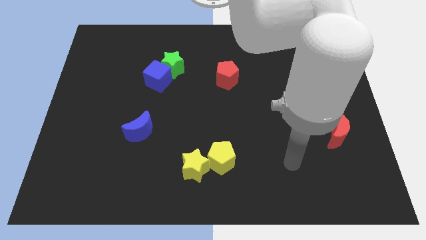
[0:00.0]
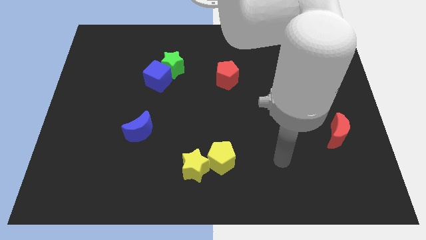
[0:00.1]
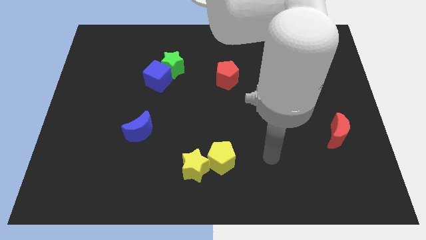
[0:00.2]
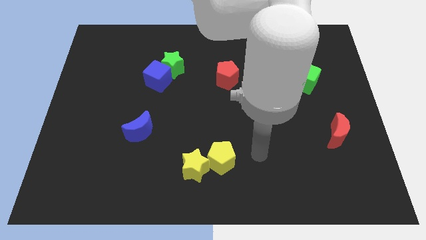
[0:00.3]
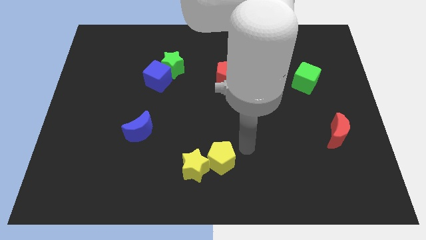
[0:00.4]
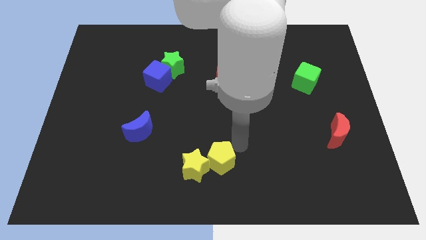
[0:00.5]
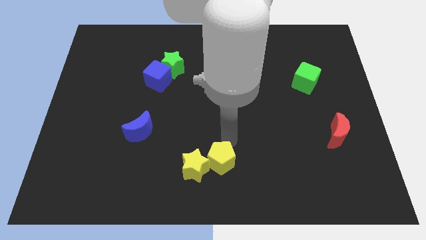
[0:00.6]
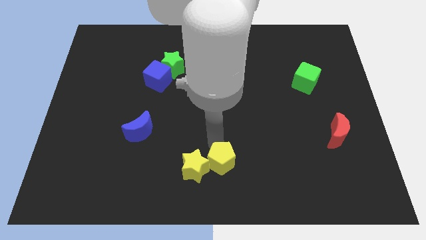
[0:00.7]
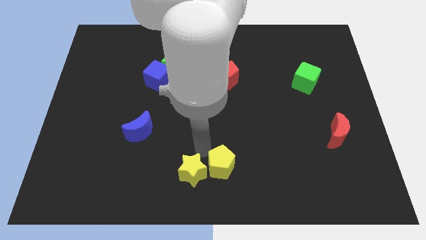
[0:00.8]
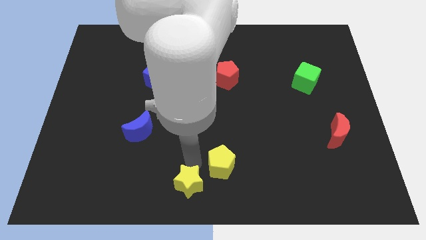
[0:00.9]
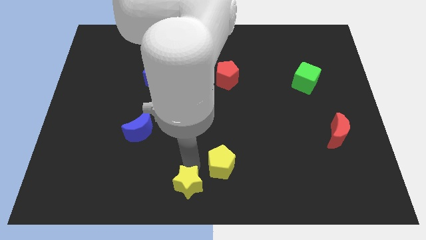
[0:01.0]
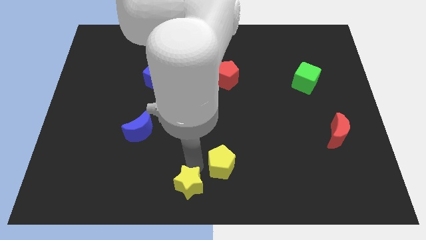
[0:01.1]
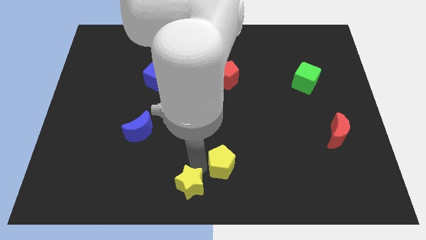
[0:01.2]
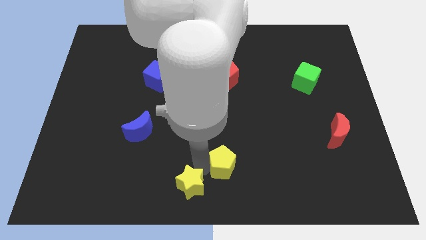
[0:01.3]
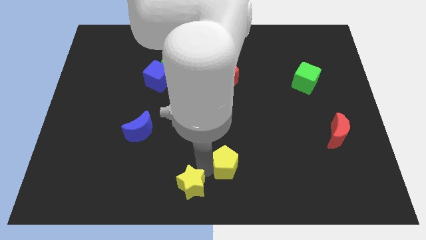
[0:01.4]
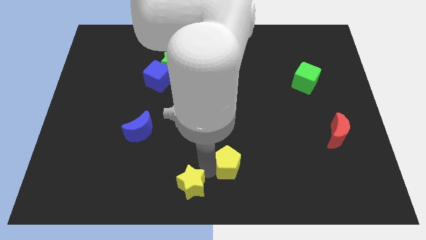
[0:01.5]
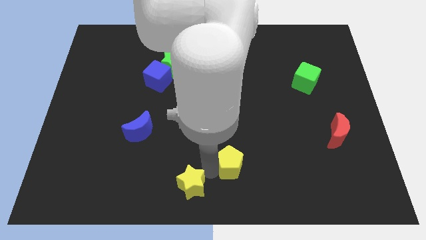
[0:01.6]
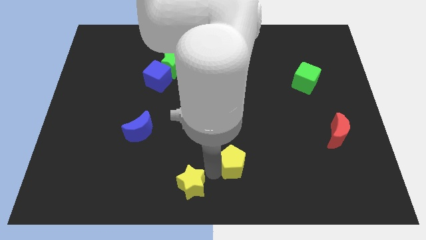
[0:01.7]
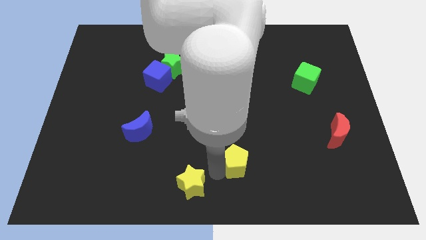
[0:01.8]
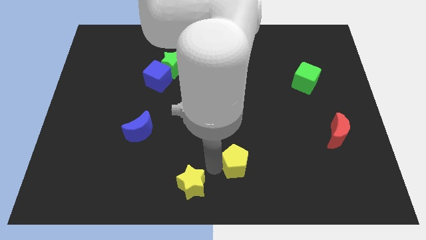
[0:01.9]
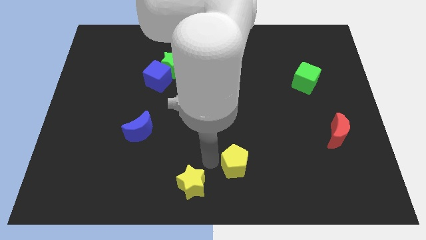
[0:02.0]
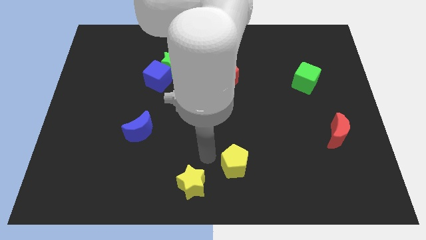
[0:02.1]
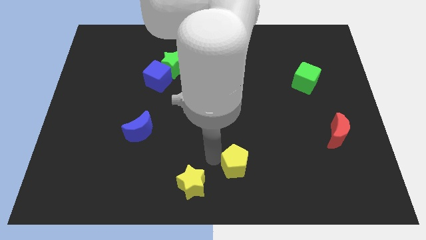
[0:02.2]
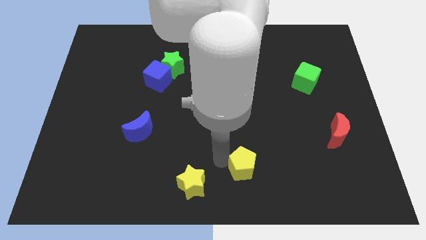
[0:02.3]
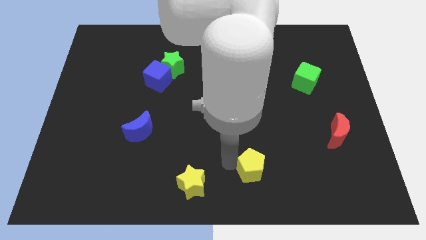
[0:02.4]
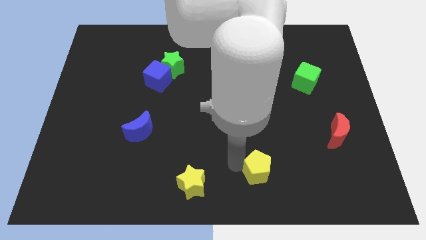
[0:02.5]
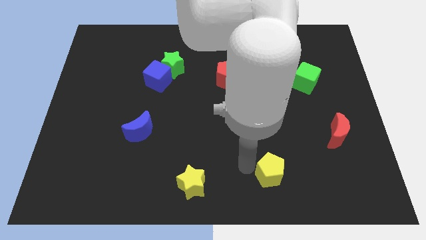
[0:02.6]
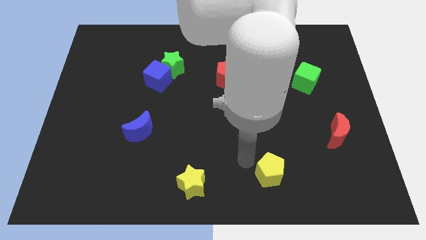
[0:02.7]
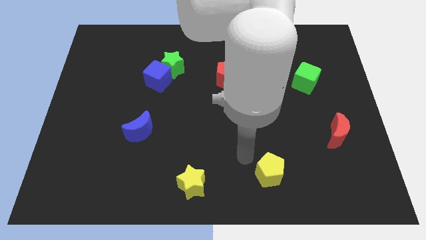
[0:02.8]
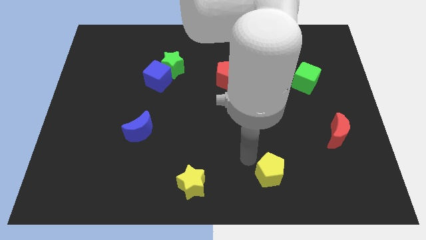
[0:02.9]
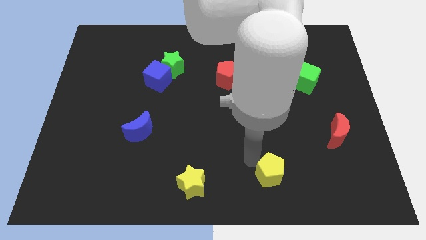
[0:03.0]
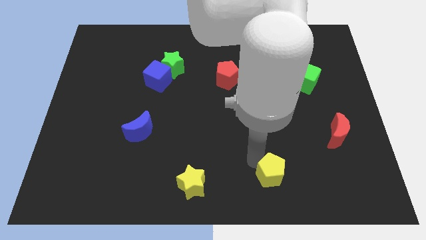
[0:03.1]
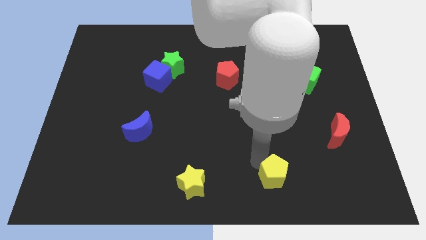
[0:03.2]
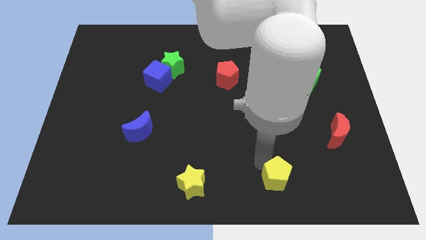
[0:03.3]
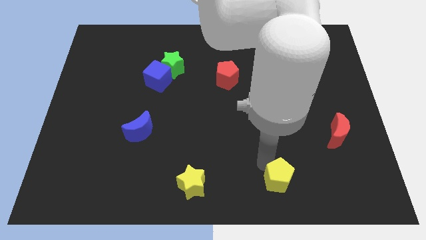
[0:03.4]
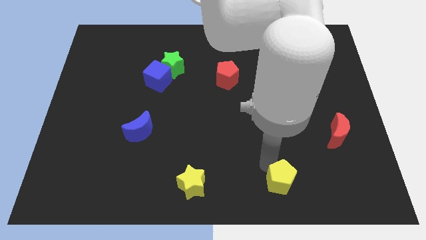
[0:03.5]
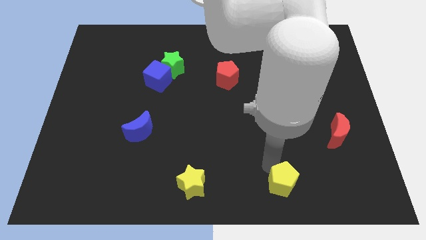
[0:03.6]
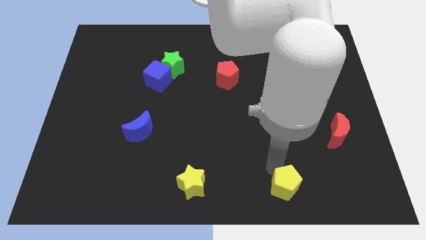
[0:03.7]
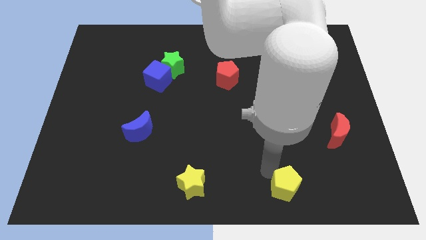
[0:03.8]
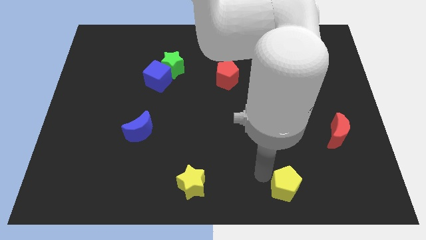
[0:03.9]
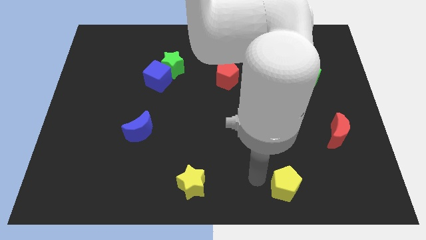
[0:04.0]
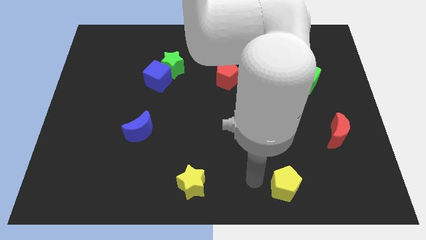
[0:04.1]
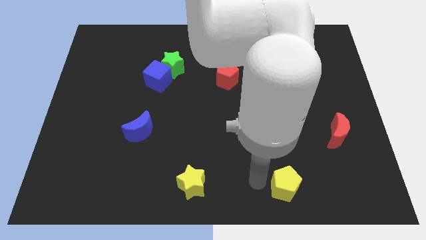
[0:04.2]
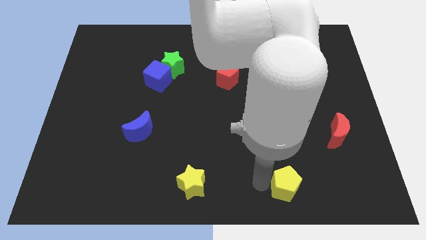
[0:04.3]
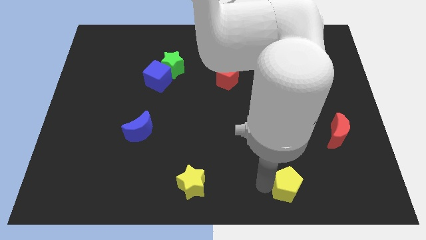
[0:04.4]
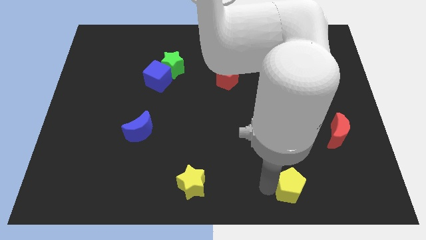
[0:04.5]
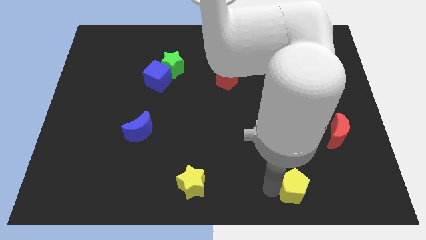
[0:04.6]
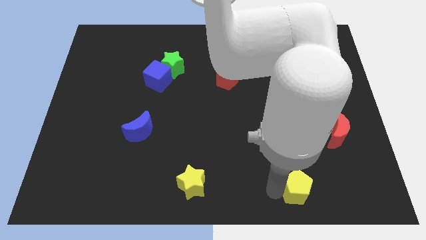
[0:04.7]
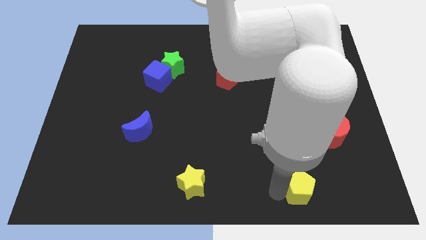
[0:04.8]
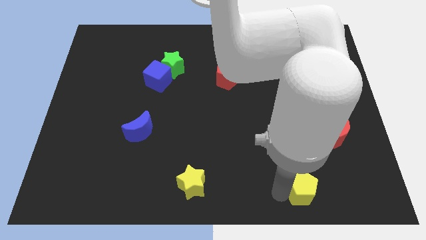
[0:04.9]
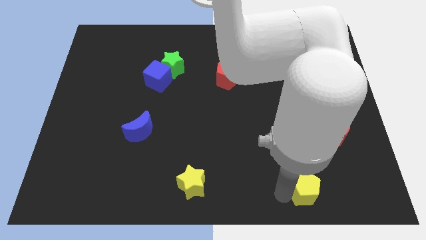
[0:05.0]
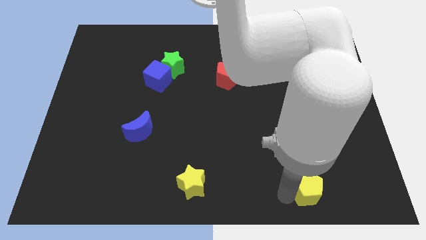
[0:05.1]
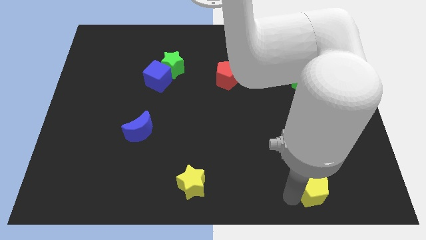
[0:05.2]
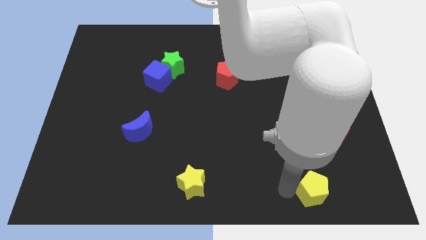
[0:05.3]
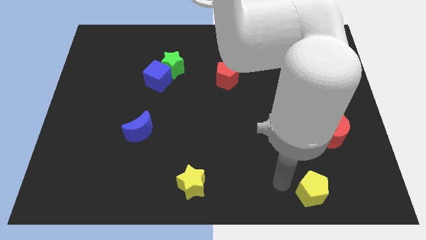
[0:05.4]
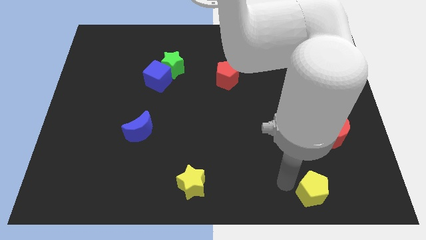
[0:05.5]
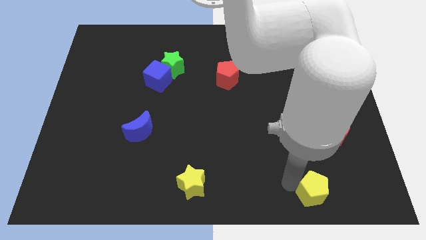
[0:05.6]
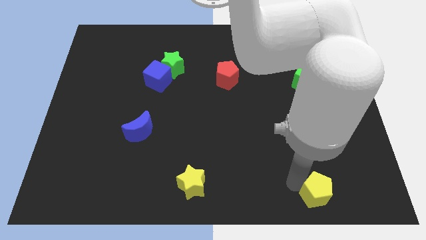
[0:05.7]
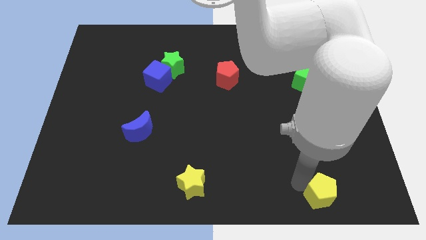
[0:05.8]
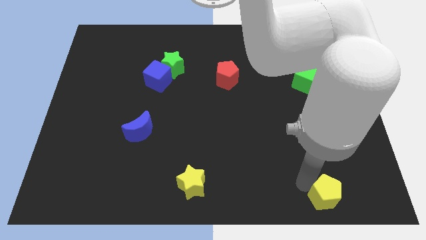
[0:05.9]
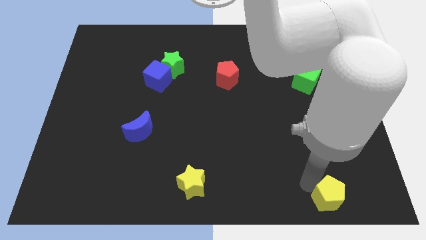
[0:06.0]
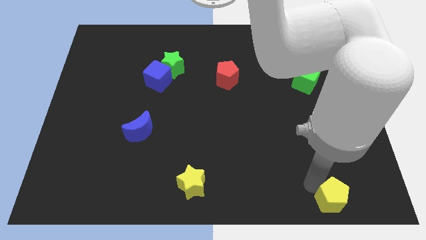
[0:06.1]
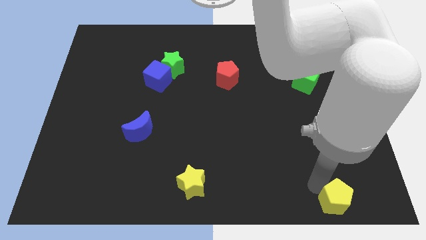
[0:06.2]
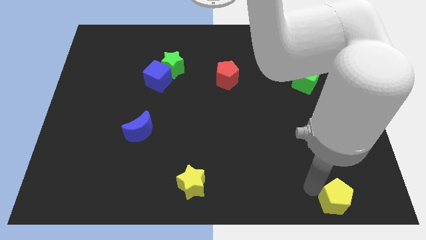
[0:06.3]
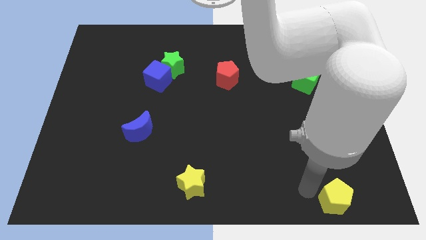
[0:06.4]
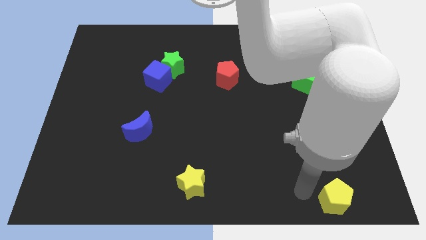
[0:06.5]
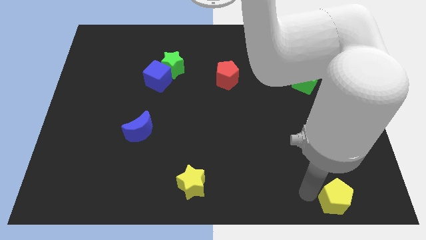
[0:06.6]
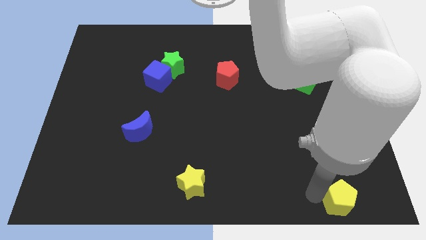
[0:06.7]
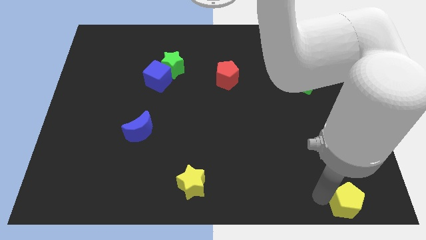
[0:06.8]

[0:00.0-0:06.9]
move the yellow pentagon to the bottom right
